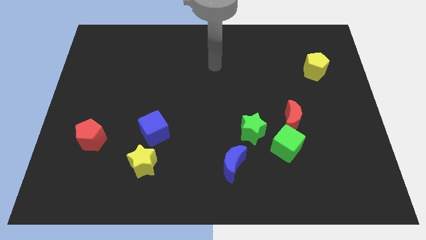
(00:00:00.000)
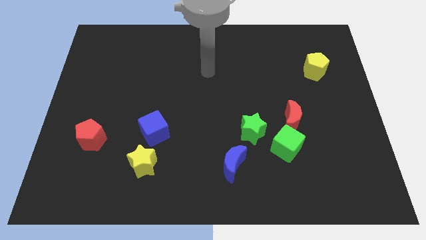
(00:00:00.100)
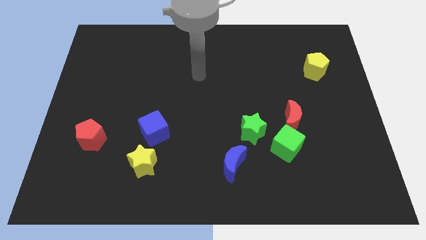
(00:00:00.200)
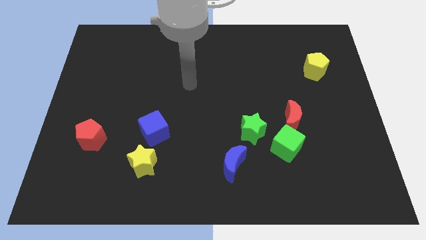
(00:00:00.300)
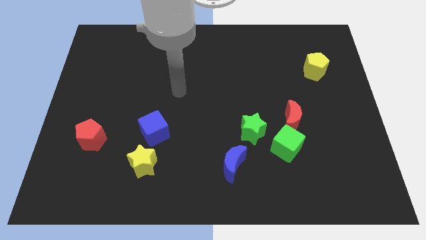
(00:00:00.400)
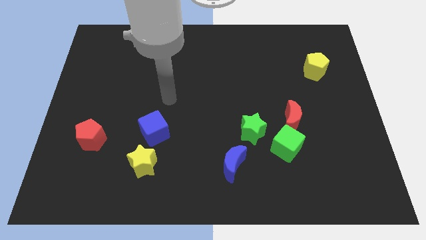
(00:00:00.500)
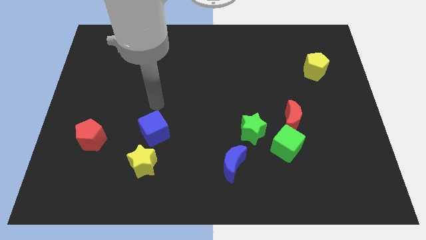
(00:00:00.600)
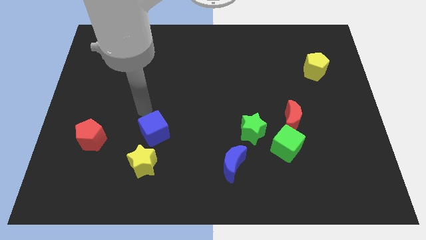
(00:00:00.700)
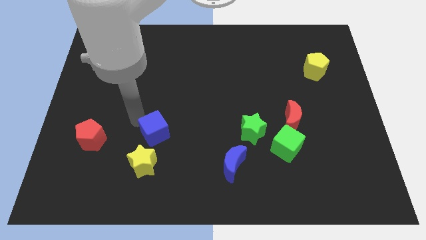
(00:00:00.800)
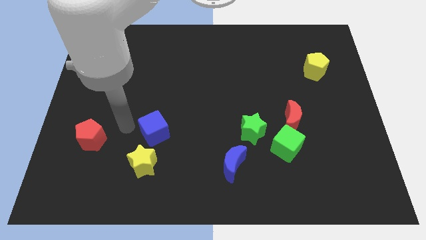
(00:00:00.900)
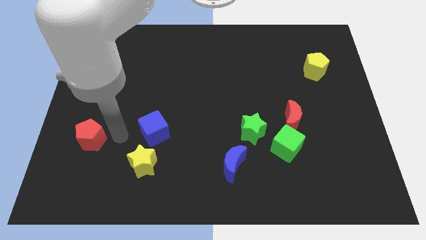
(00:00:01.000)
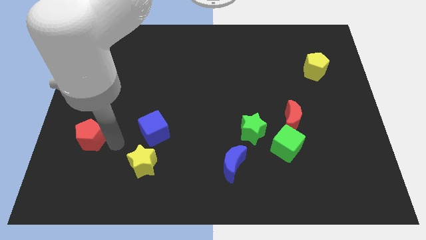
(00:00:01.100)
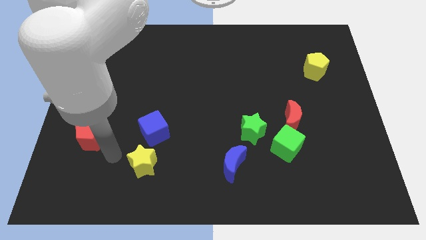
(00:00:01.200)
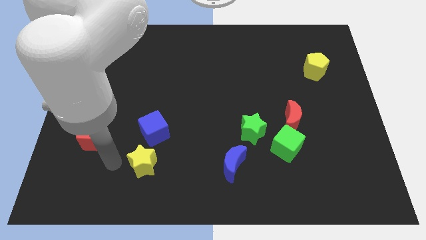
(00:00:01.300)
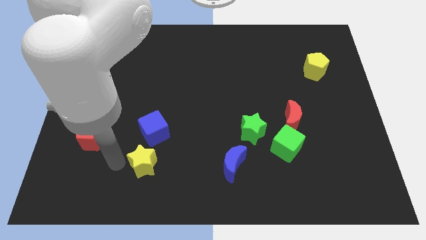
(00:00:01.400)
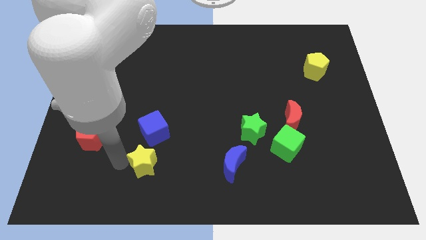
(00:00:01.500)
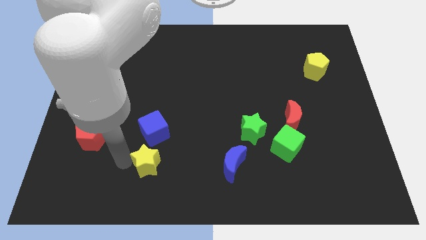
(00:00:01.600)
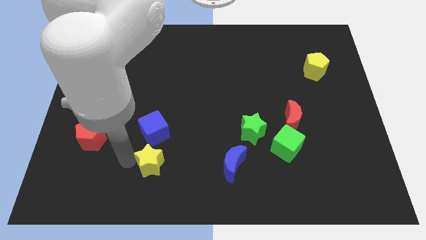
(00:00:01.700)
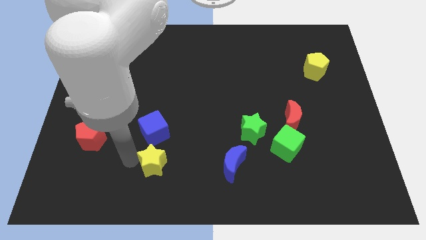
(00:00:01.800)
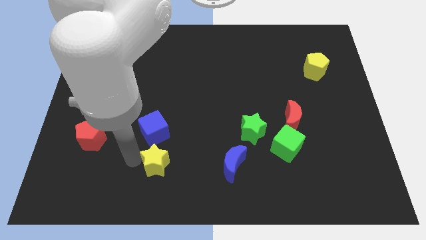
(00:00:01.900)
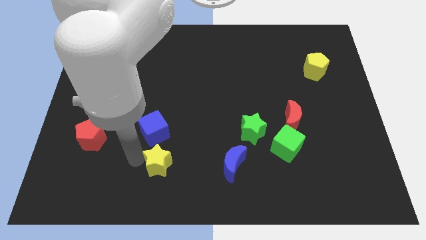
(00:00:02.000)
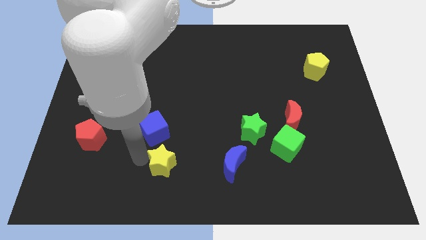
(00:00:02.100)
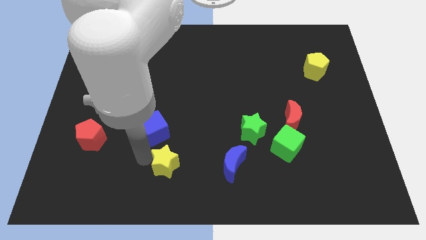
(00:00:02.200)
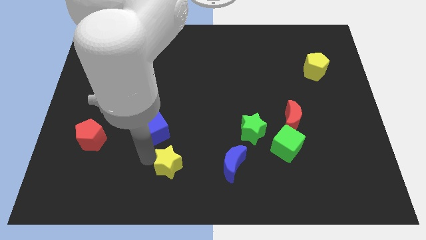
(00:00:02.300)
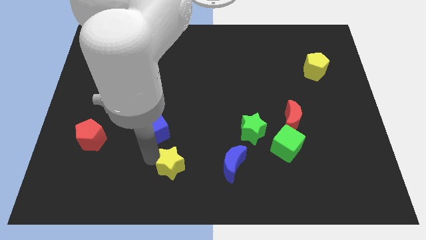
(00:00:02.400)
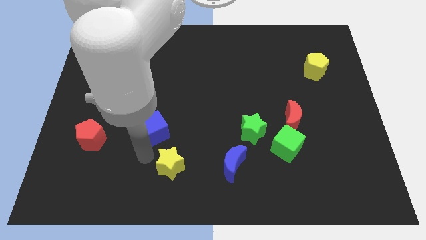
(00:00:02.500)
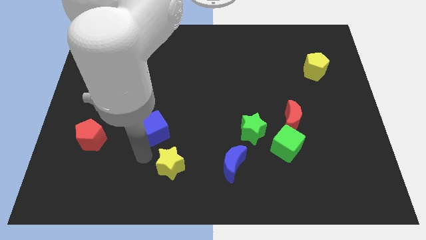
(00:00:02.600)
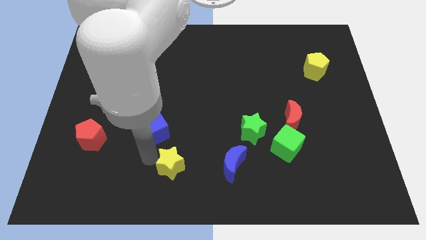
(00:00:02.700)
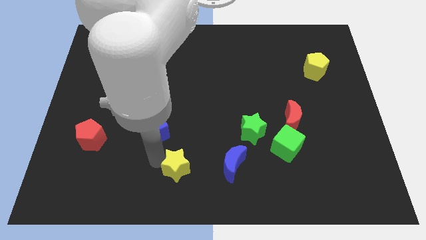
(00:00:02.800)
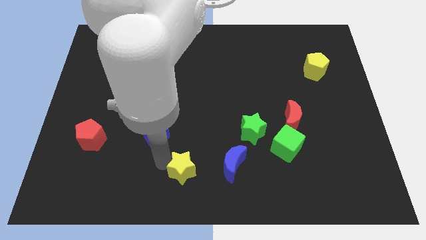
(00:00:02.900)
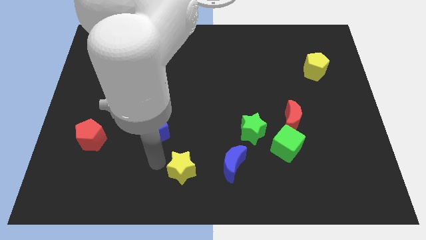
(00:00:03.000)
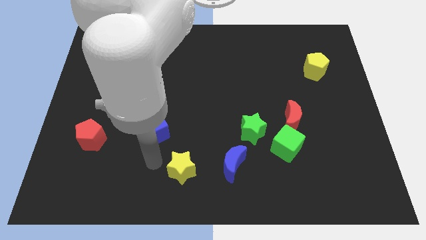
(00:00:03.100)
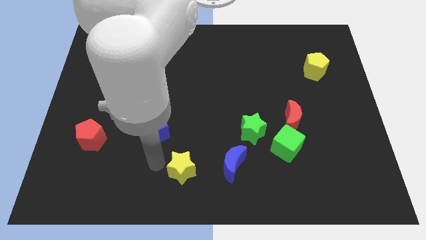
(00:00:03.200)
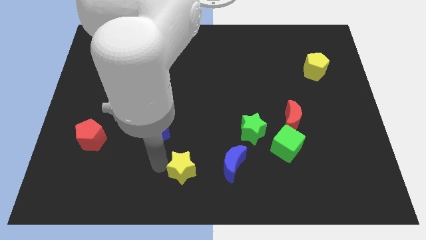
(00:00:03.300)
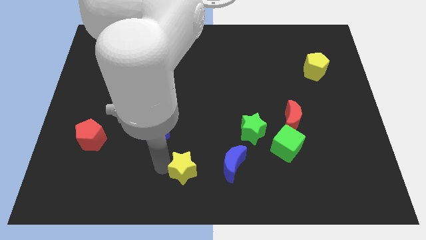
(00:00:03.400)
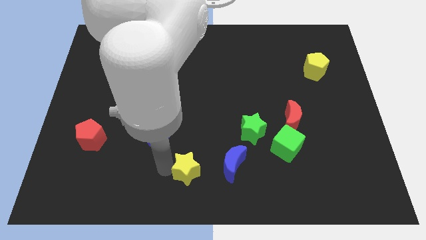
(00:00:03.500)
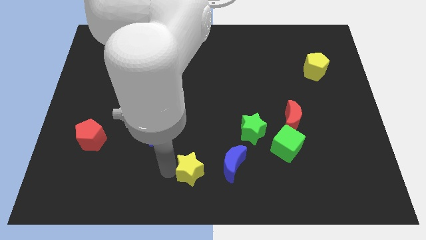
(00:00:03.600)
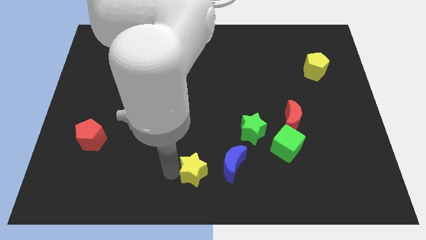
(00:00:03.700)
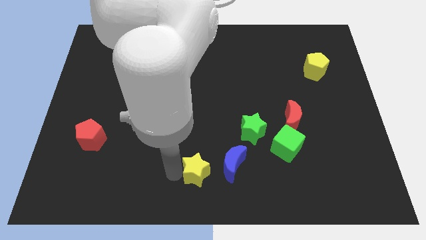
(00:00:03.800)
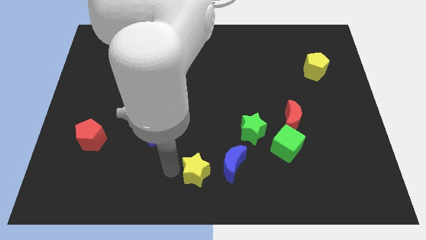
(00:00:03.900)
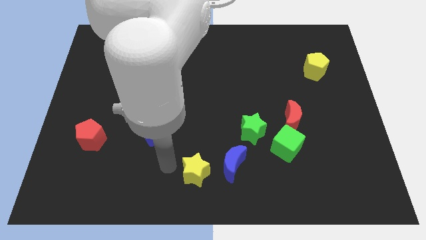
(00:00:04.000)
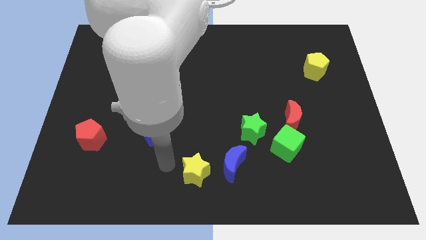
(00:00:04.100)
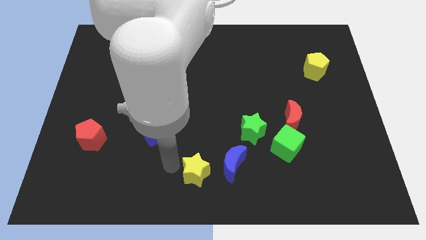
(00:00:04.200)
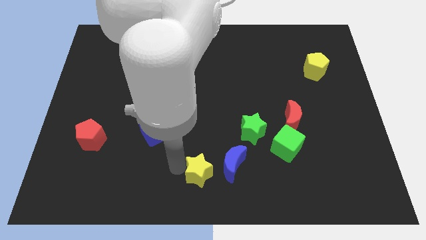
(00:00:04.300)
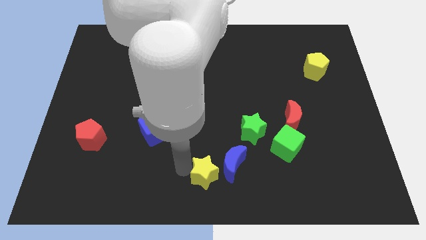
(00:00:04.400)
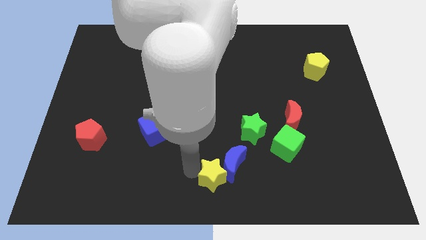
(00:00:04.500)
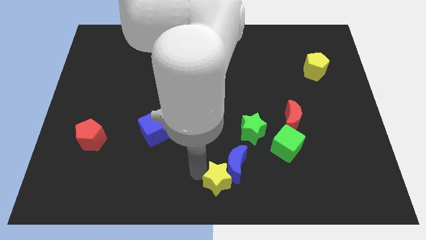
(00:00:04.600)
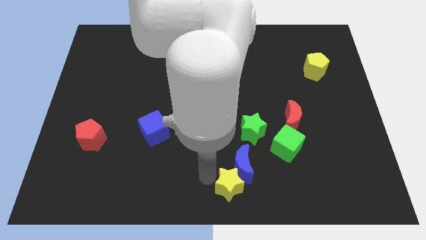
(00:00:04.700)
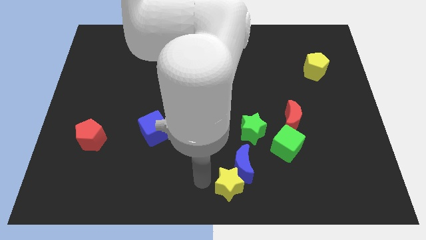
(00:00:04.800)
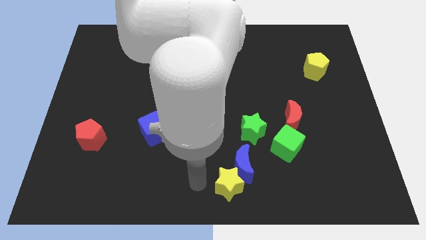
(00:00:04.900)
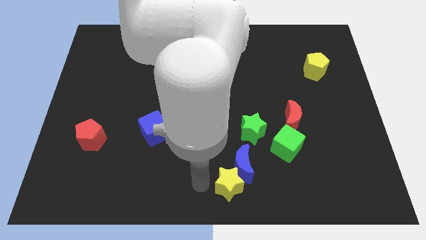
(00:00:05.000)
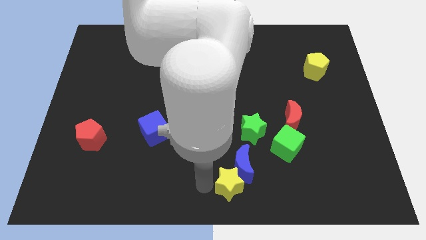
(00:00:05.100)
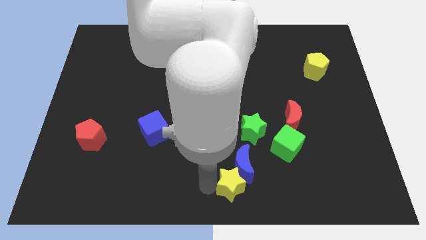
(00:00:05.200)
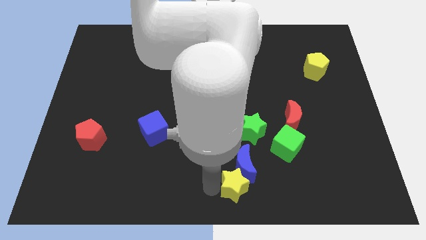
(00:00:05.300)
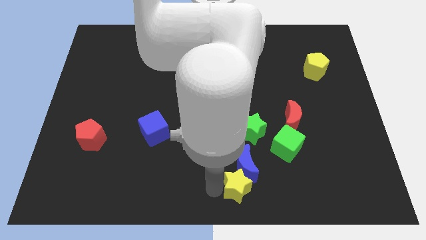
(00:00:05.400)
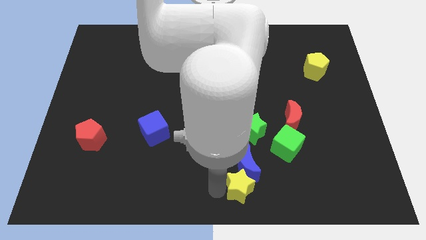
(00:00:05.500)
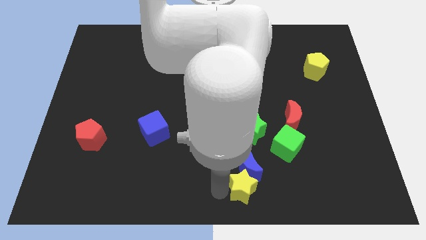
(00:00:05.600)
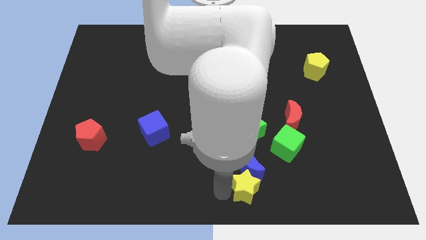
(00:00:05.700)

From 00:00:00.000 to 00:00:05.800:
push the yellow star right

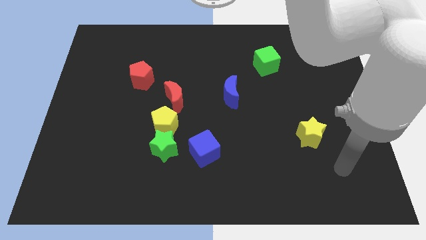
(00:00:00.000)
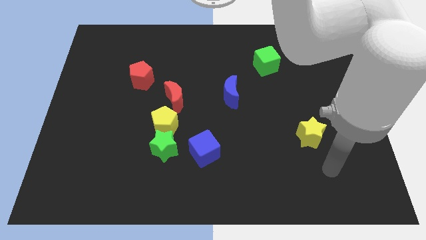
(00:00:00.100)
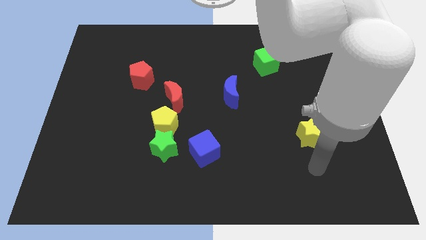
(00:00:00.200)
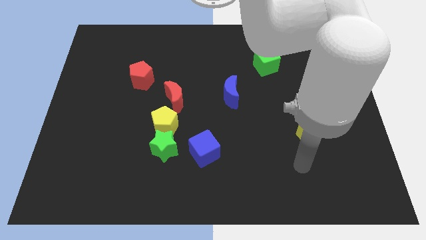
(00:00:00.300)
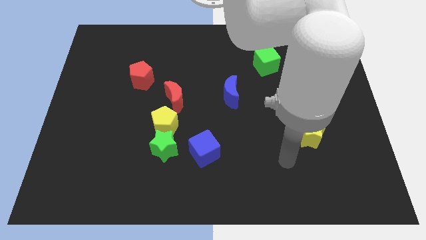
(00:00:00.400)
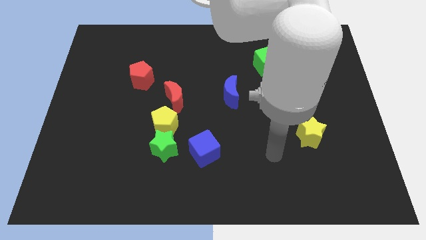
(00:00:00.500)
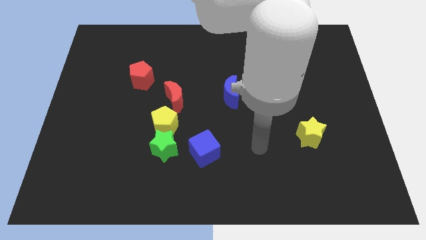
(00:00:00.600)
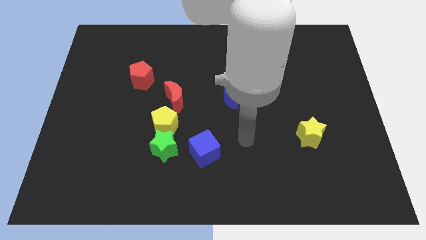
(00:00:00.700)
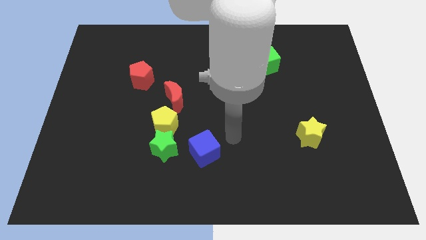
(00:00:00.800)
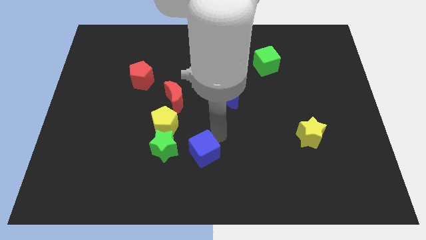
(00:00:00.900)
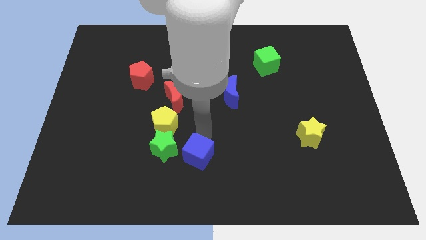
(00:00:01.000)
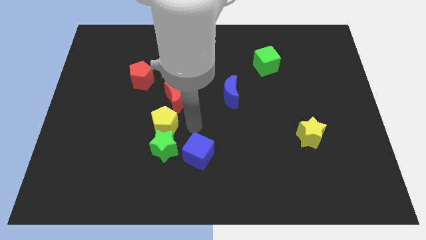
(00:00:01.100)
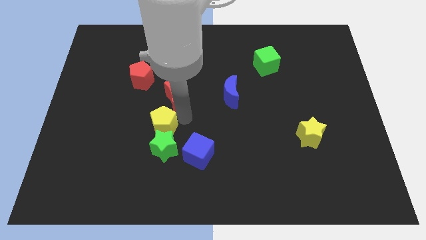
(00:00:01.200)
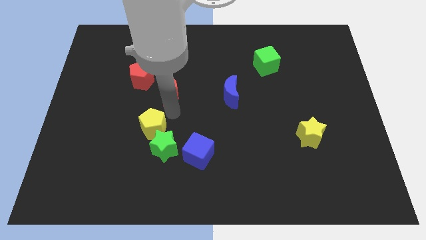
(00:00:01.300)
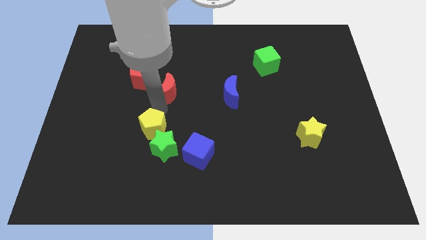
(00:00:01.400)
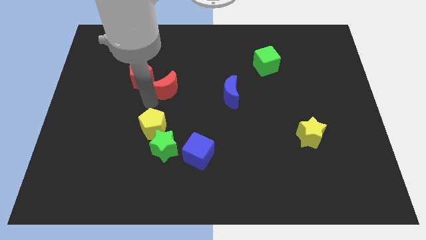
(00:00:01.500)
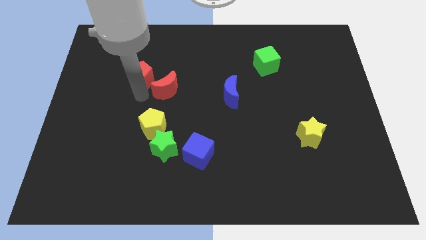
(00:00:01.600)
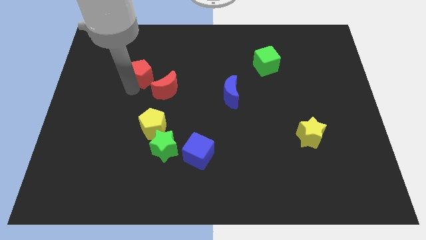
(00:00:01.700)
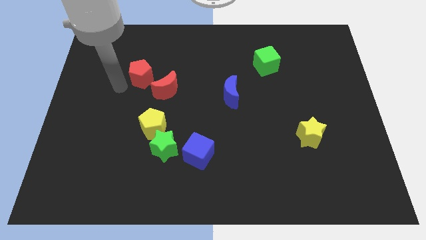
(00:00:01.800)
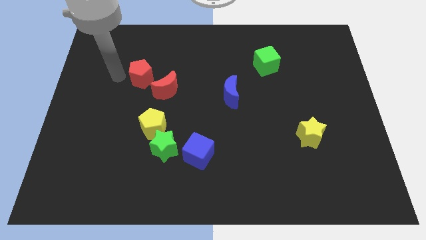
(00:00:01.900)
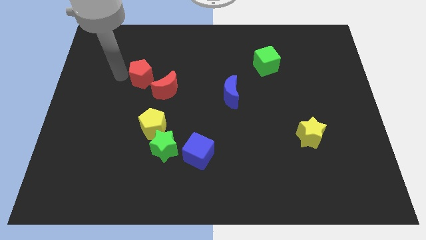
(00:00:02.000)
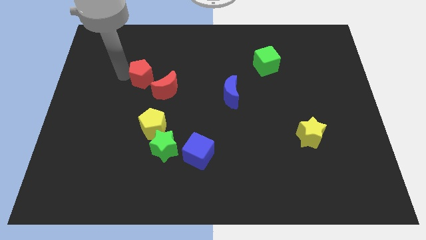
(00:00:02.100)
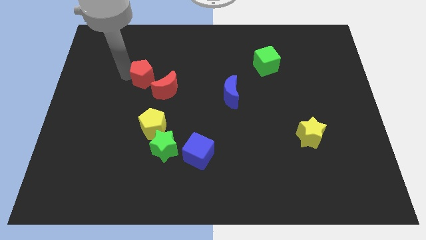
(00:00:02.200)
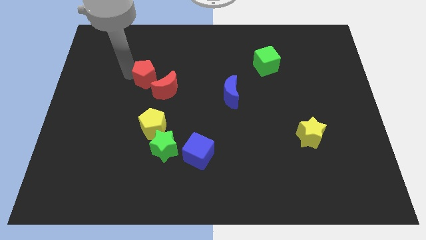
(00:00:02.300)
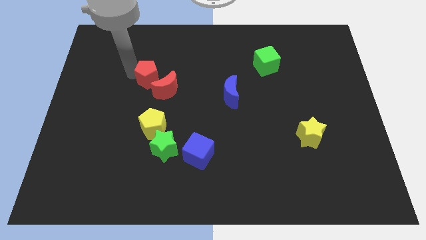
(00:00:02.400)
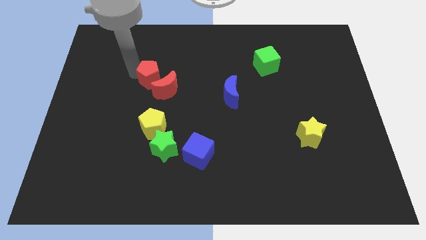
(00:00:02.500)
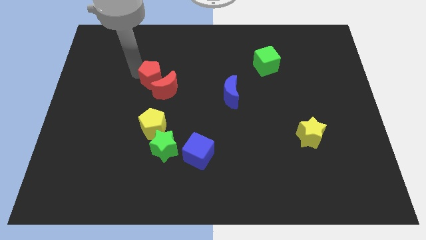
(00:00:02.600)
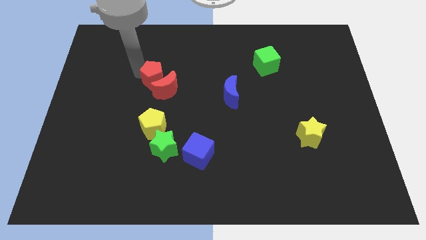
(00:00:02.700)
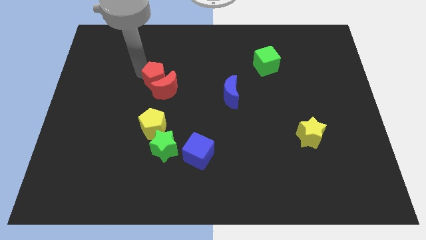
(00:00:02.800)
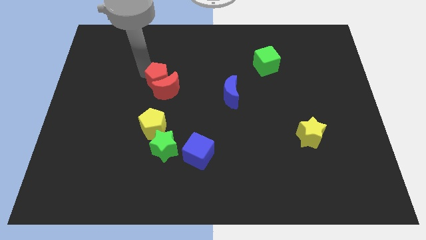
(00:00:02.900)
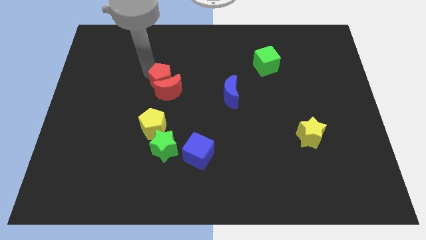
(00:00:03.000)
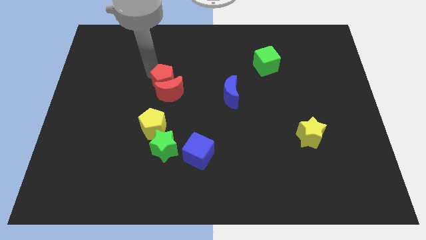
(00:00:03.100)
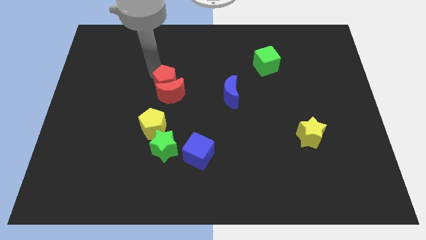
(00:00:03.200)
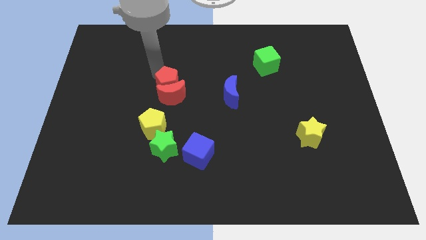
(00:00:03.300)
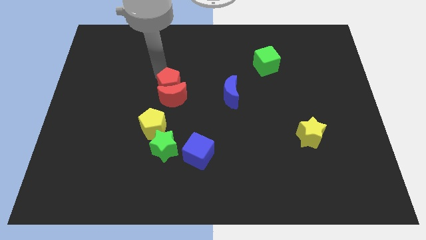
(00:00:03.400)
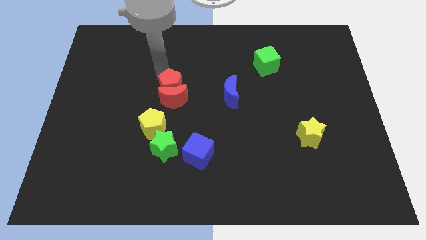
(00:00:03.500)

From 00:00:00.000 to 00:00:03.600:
slide the red pentagon a bit down and right
